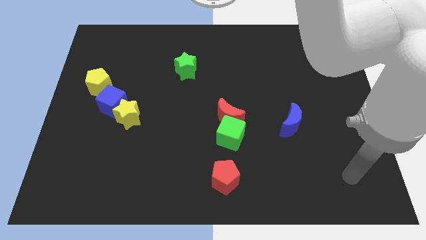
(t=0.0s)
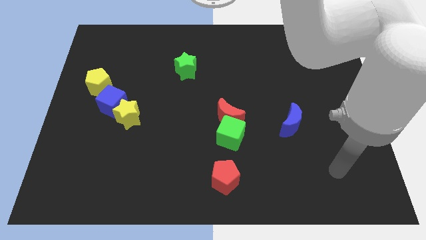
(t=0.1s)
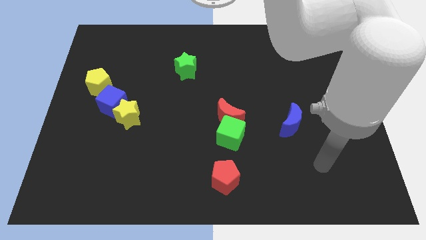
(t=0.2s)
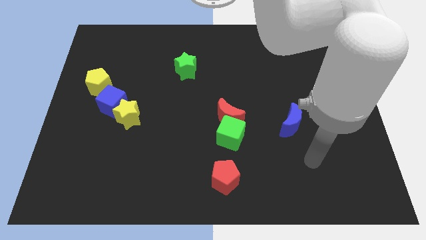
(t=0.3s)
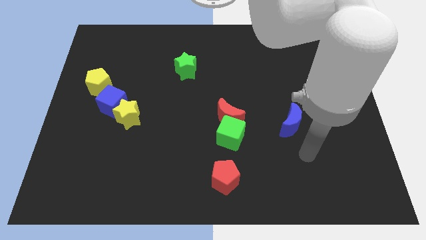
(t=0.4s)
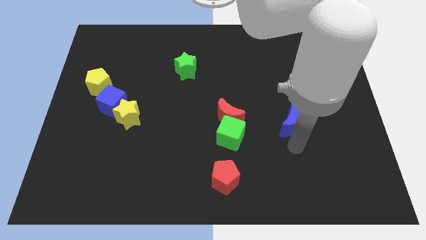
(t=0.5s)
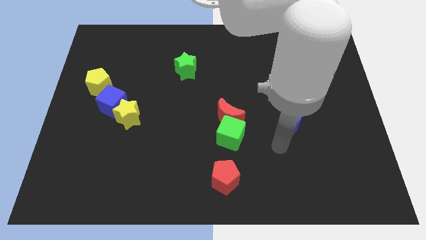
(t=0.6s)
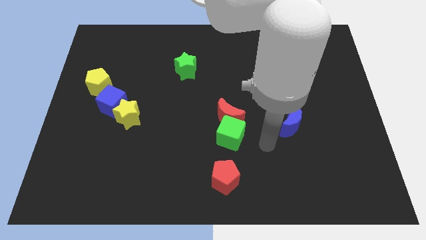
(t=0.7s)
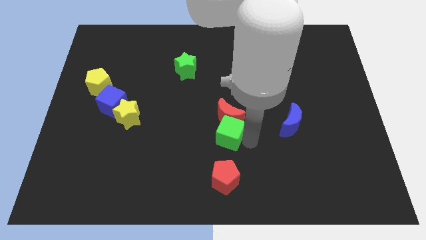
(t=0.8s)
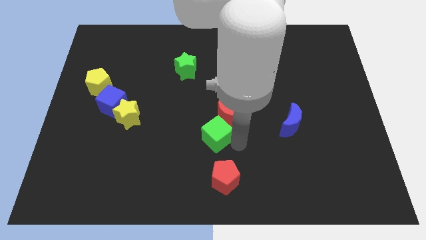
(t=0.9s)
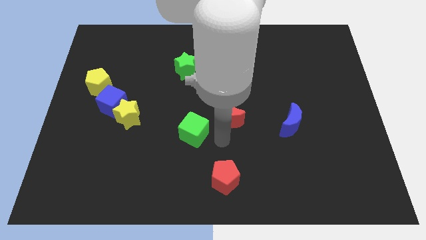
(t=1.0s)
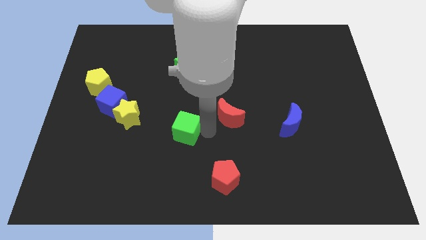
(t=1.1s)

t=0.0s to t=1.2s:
pull the red moon apart from the green cube

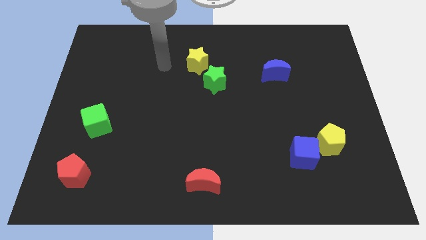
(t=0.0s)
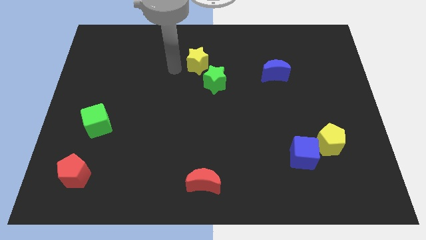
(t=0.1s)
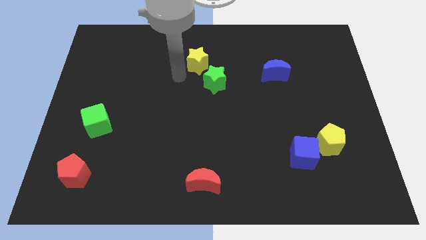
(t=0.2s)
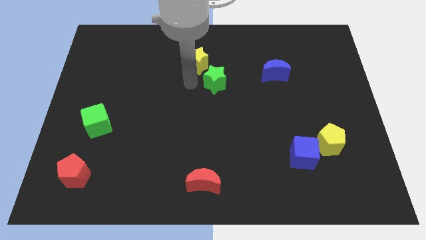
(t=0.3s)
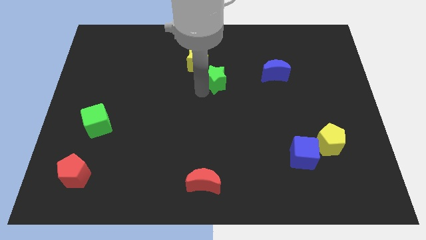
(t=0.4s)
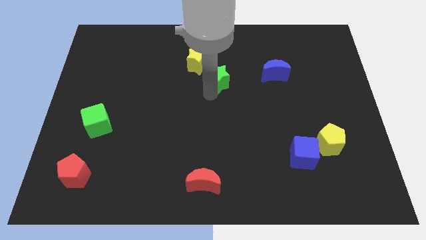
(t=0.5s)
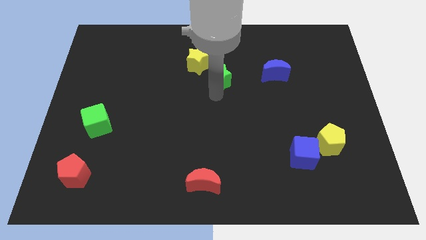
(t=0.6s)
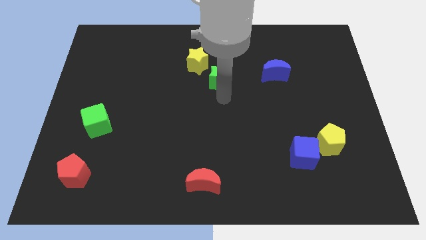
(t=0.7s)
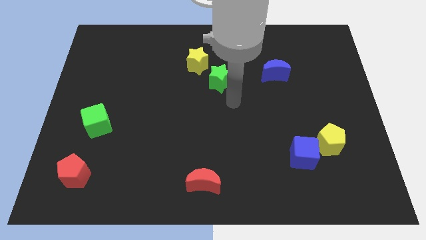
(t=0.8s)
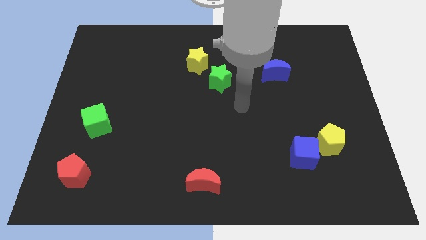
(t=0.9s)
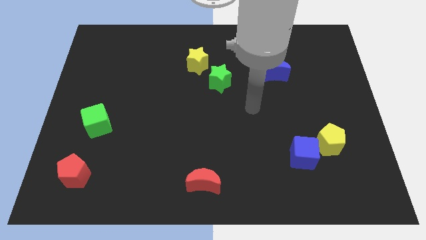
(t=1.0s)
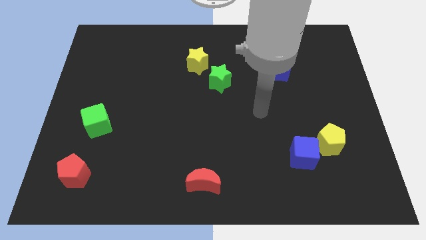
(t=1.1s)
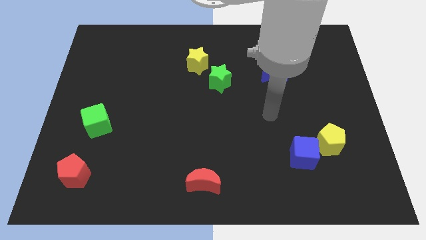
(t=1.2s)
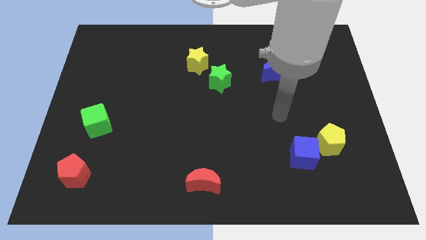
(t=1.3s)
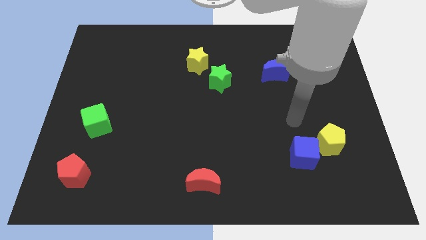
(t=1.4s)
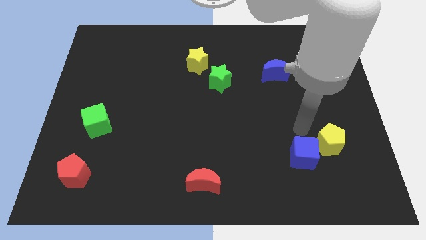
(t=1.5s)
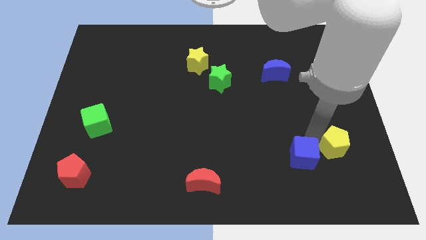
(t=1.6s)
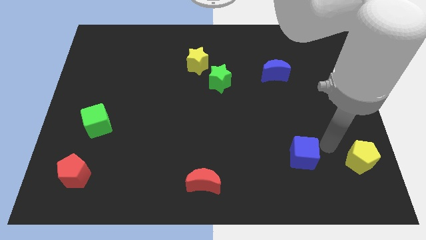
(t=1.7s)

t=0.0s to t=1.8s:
pull the blue cube apart from the yellow pentagon

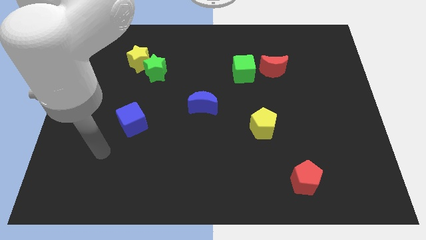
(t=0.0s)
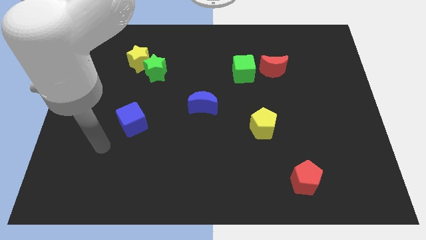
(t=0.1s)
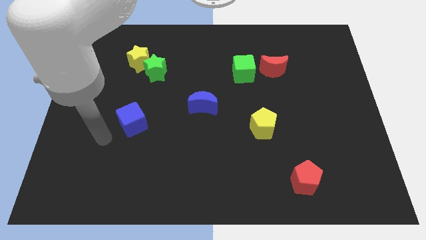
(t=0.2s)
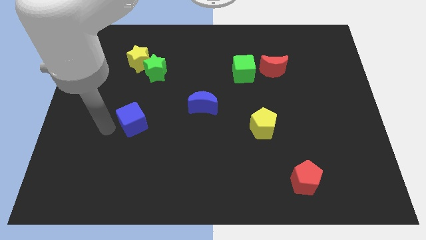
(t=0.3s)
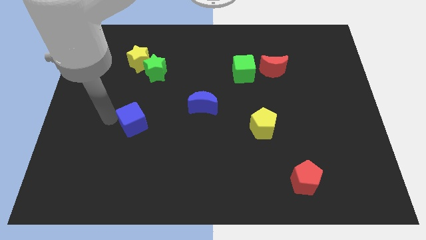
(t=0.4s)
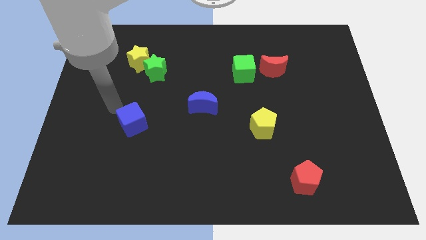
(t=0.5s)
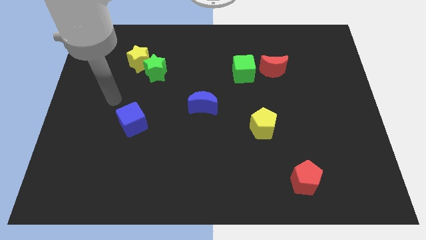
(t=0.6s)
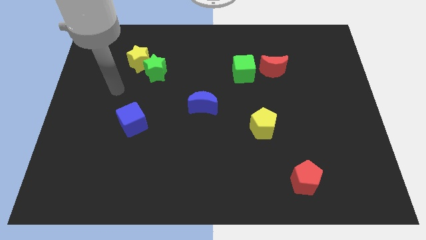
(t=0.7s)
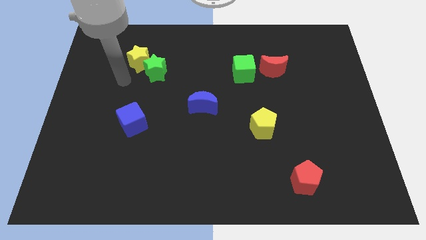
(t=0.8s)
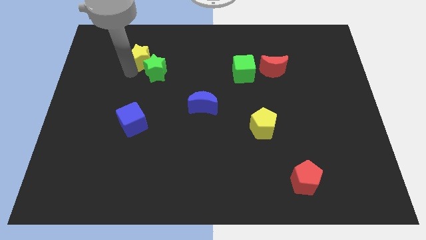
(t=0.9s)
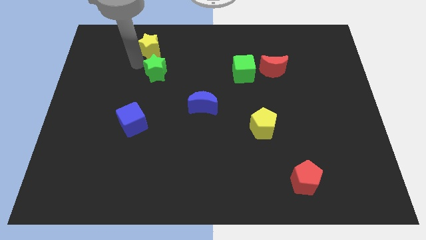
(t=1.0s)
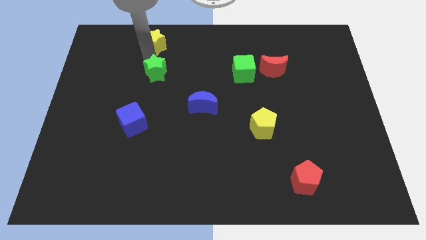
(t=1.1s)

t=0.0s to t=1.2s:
move the green star away from the yellow star

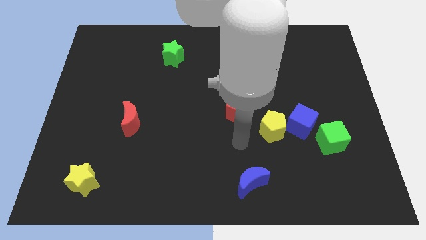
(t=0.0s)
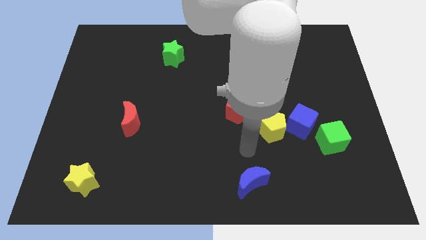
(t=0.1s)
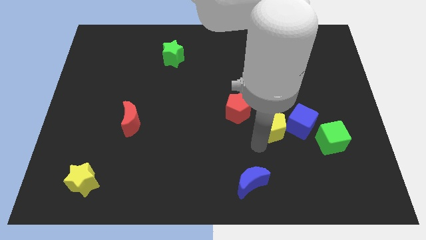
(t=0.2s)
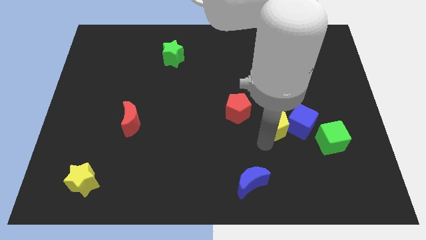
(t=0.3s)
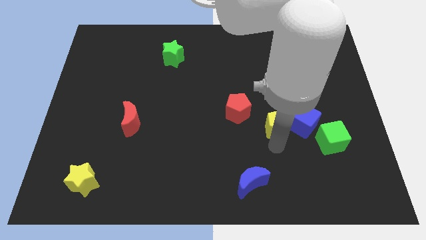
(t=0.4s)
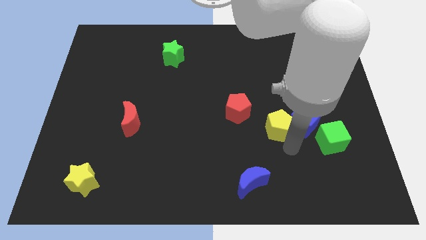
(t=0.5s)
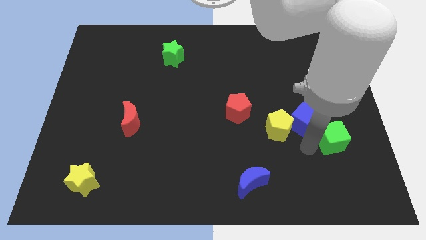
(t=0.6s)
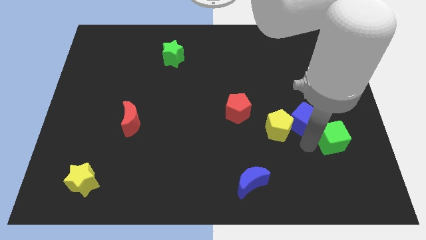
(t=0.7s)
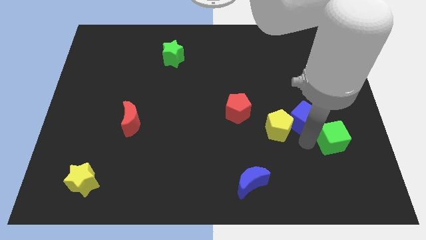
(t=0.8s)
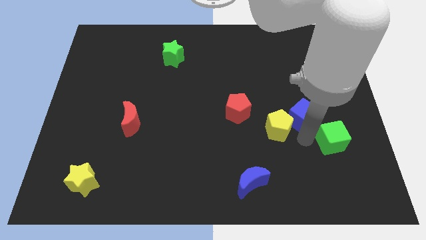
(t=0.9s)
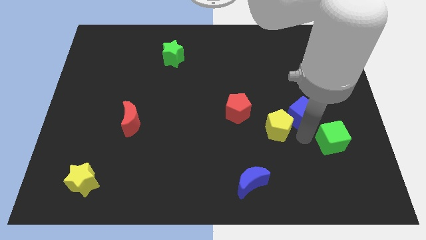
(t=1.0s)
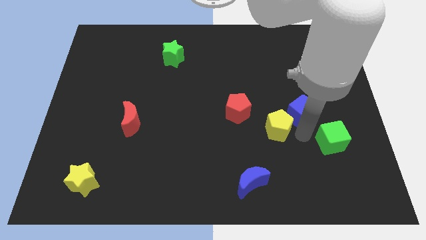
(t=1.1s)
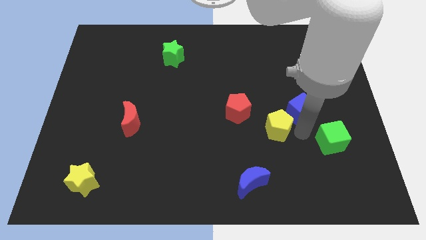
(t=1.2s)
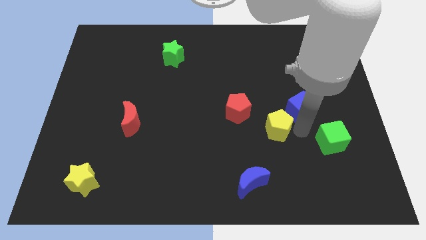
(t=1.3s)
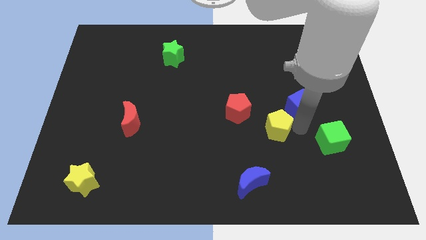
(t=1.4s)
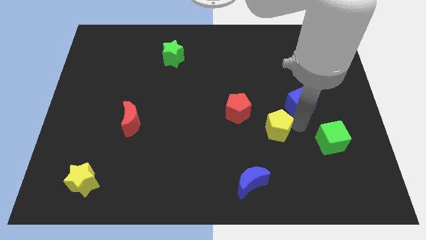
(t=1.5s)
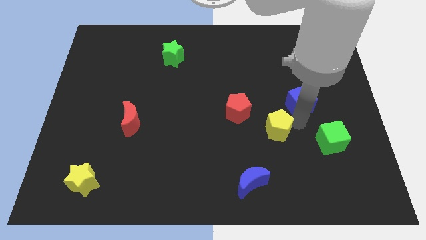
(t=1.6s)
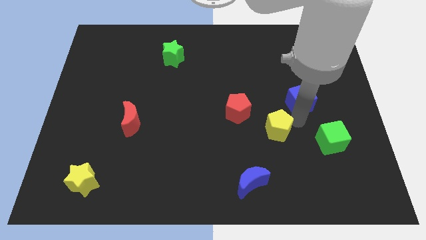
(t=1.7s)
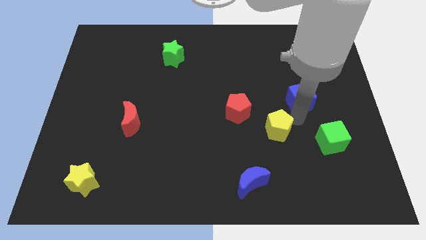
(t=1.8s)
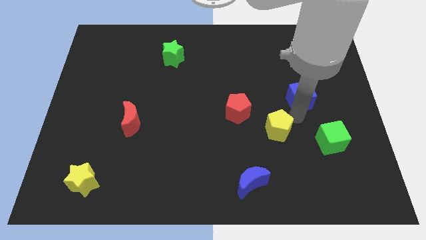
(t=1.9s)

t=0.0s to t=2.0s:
move the blue cube away from the yellow pentagon and green cube

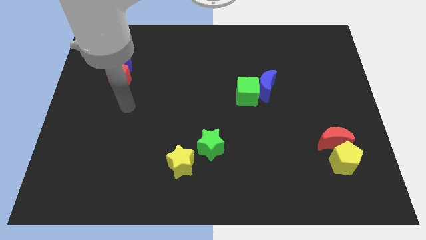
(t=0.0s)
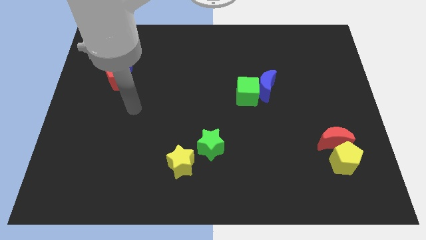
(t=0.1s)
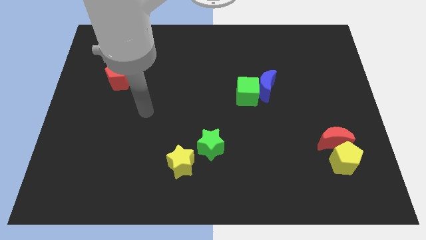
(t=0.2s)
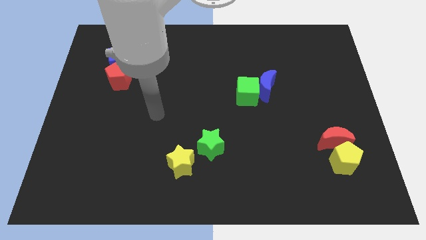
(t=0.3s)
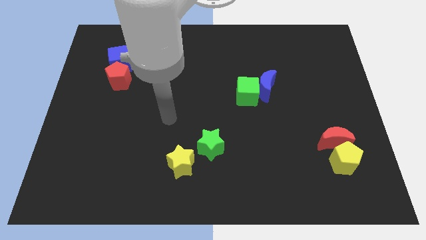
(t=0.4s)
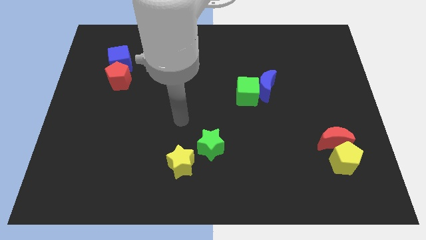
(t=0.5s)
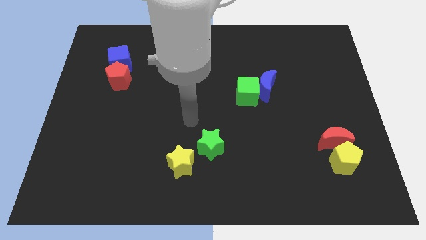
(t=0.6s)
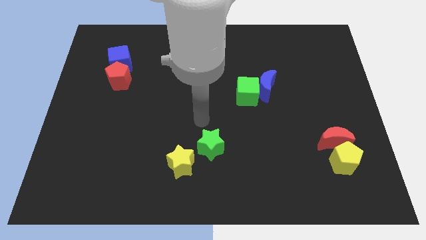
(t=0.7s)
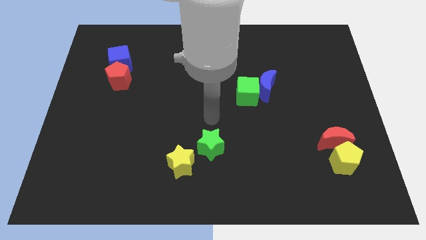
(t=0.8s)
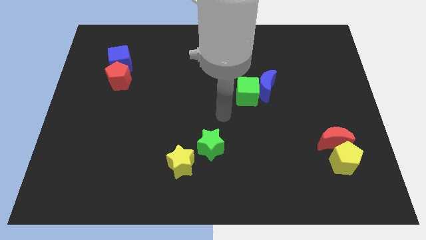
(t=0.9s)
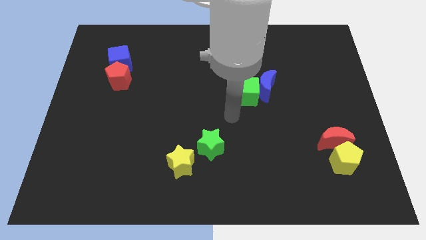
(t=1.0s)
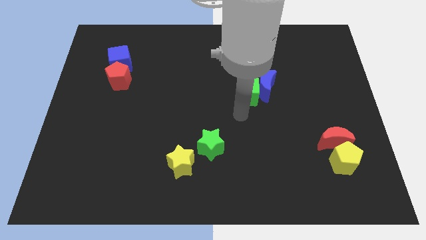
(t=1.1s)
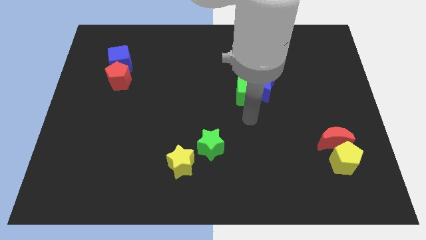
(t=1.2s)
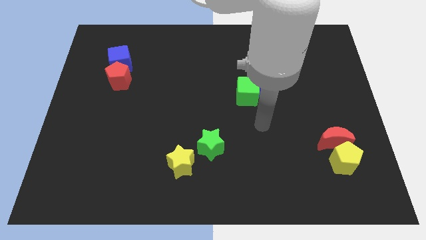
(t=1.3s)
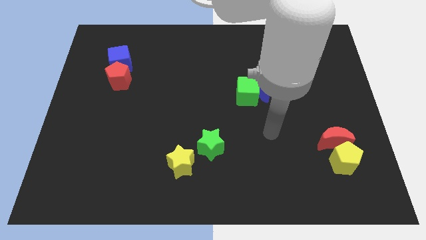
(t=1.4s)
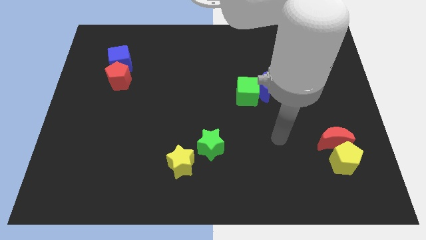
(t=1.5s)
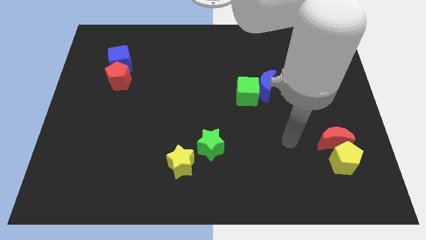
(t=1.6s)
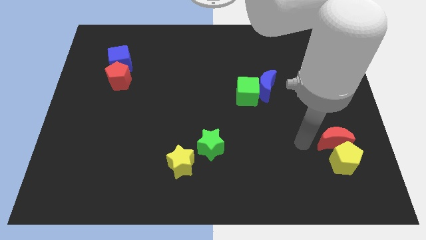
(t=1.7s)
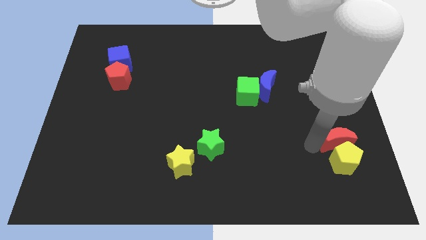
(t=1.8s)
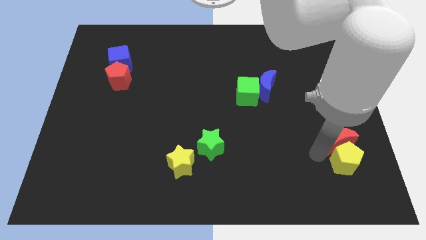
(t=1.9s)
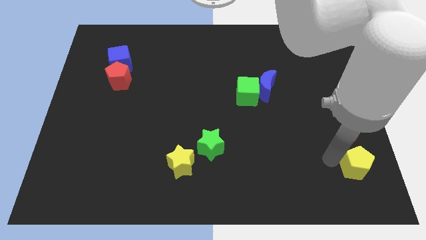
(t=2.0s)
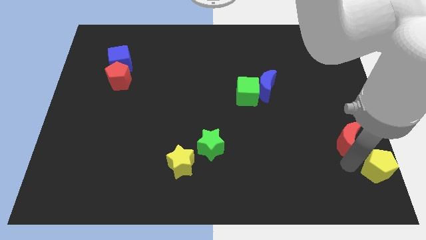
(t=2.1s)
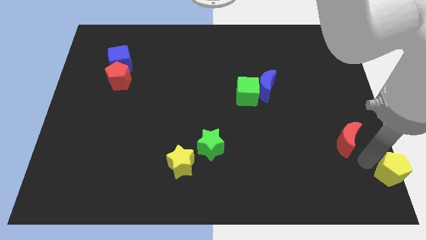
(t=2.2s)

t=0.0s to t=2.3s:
pull the red moon apart from the yellow pentagon

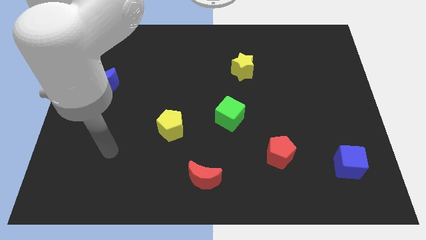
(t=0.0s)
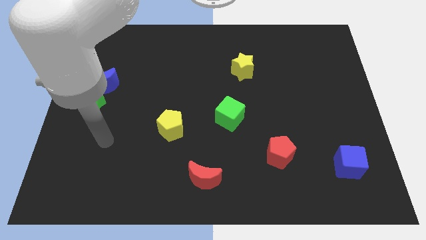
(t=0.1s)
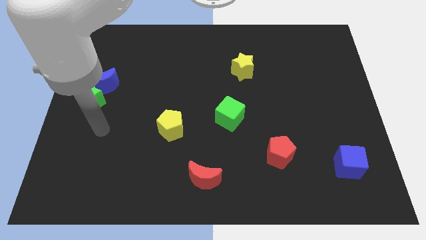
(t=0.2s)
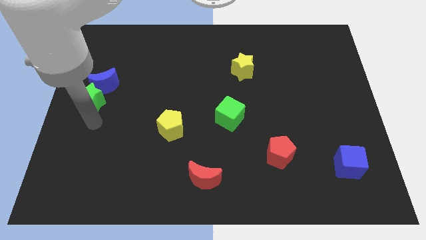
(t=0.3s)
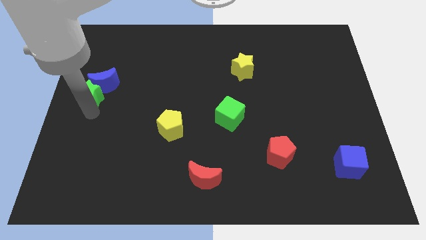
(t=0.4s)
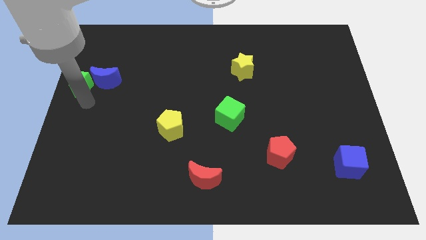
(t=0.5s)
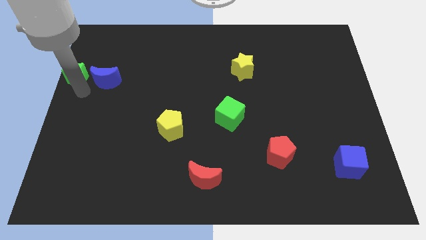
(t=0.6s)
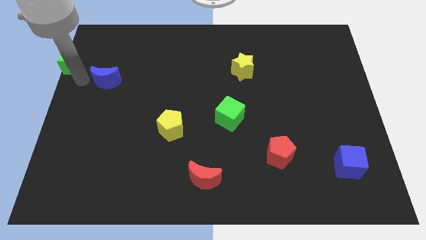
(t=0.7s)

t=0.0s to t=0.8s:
pull the blue moon apart from the green star
